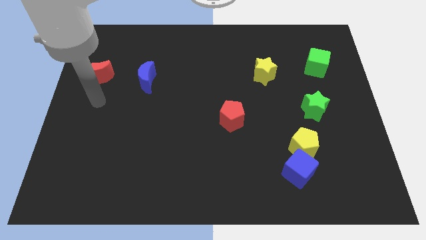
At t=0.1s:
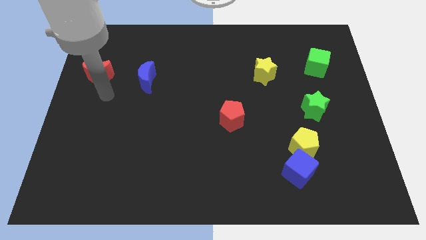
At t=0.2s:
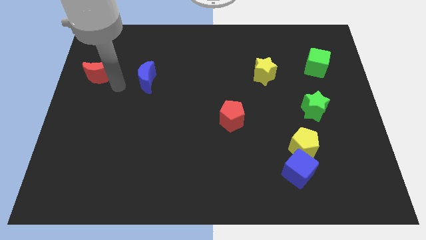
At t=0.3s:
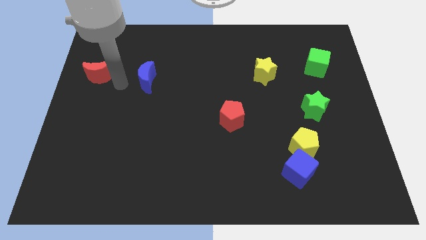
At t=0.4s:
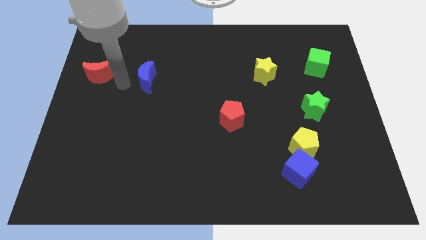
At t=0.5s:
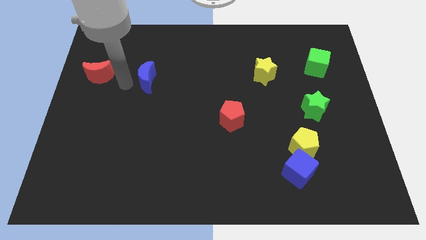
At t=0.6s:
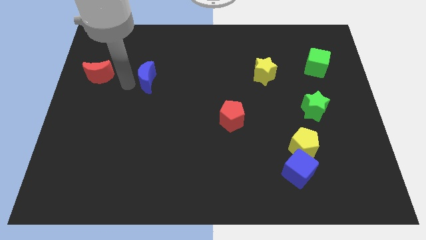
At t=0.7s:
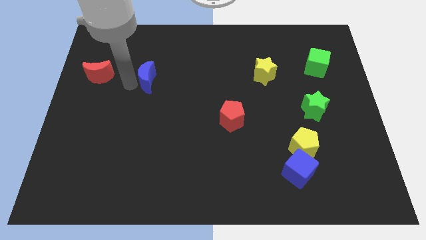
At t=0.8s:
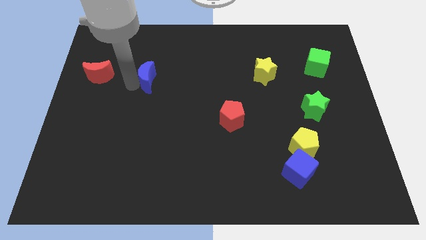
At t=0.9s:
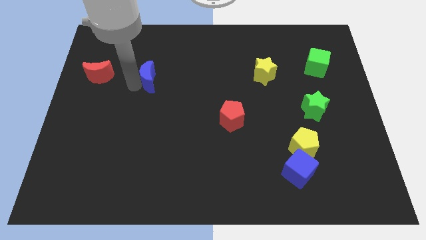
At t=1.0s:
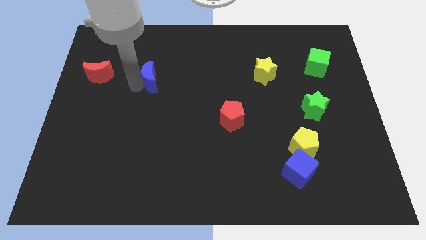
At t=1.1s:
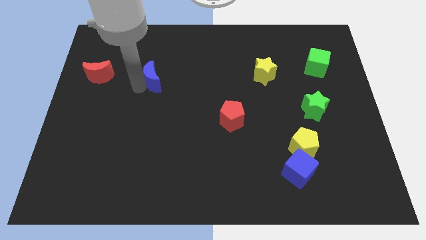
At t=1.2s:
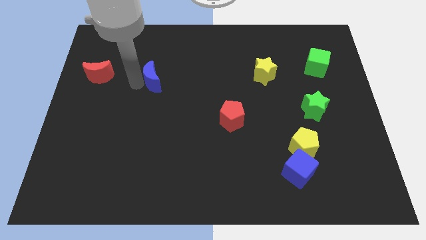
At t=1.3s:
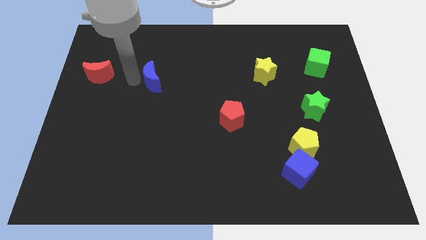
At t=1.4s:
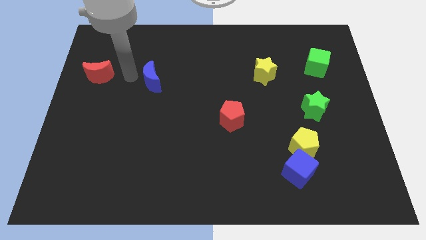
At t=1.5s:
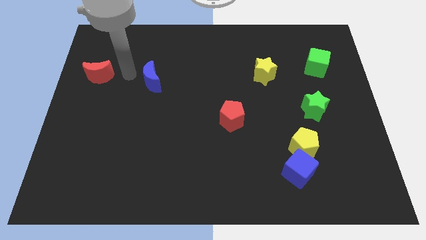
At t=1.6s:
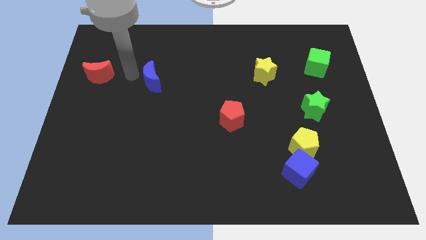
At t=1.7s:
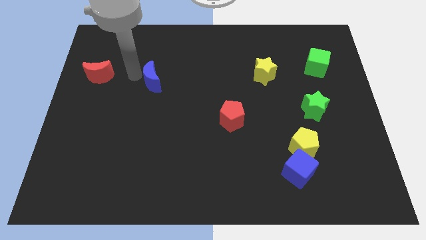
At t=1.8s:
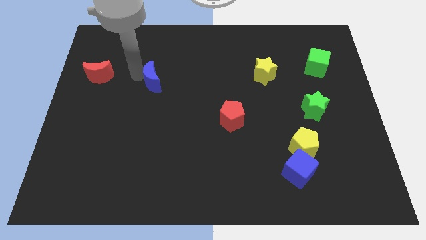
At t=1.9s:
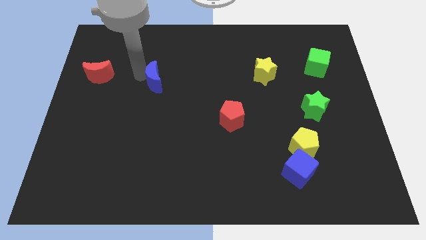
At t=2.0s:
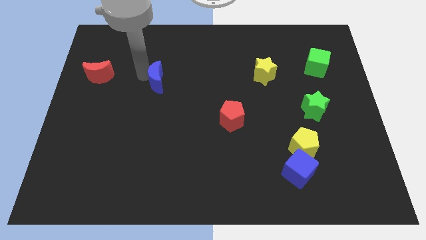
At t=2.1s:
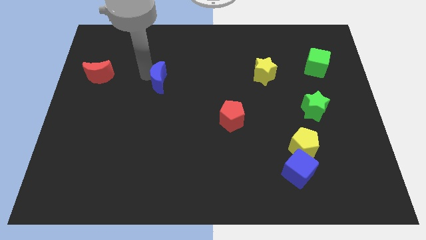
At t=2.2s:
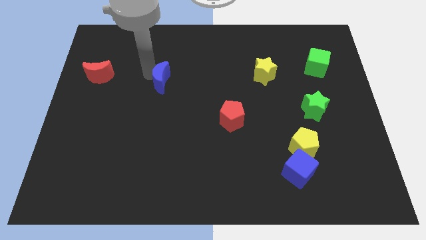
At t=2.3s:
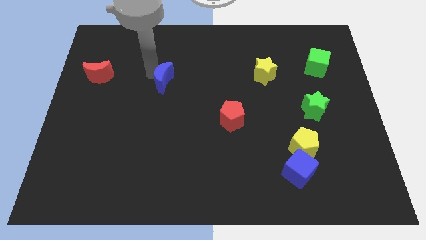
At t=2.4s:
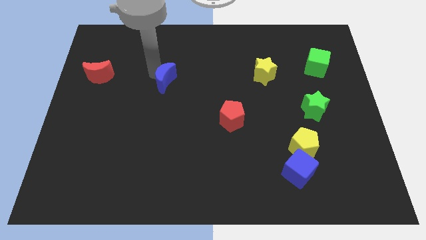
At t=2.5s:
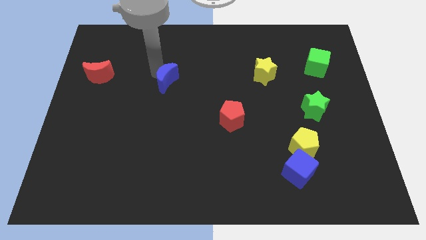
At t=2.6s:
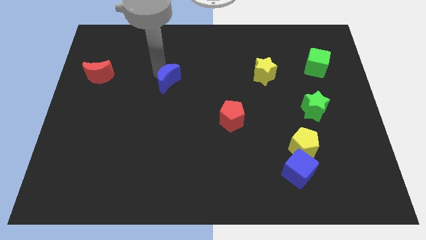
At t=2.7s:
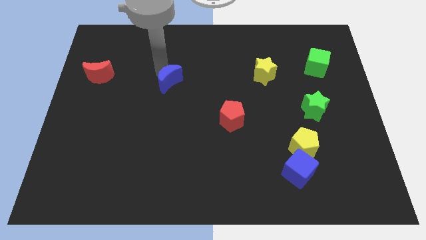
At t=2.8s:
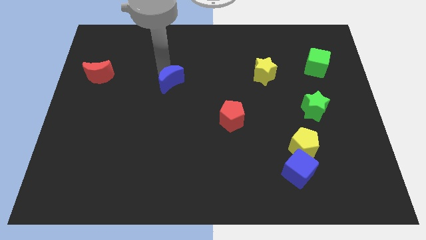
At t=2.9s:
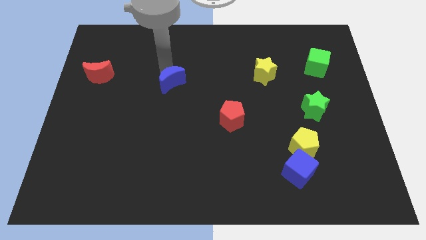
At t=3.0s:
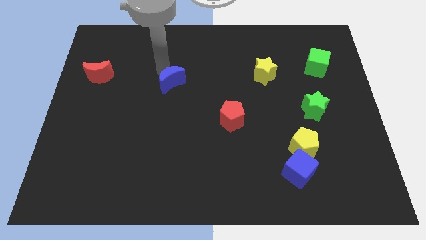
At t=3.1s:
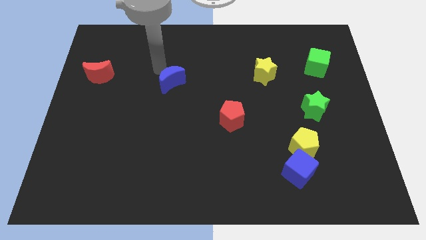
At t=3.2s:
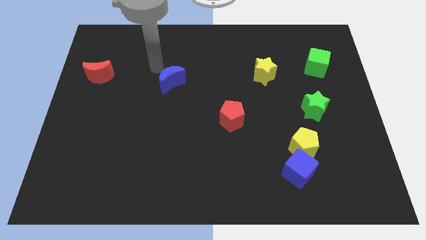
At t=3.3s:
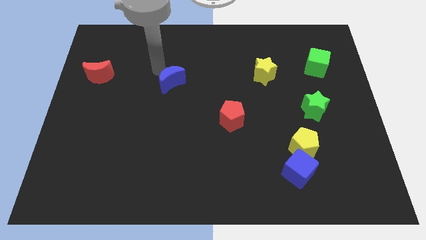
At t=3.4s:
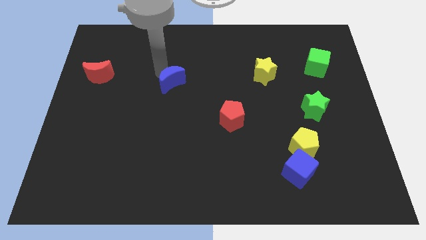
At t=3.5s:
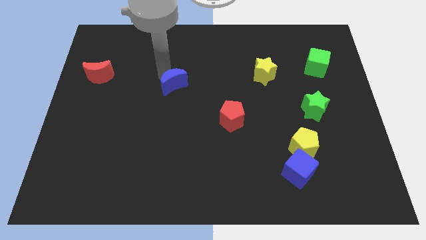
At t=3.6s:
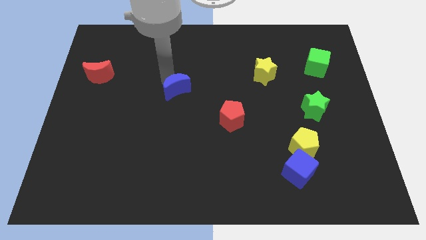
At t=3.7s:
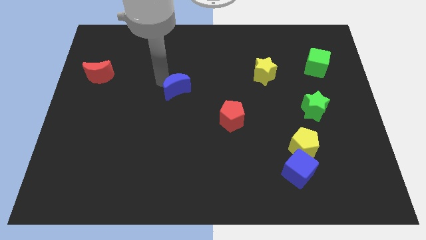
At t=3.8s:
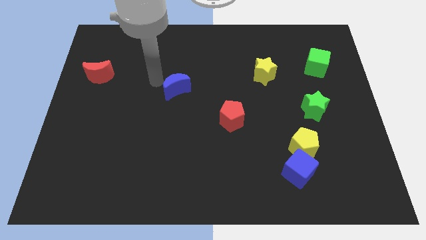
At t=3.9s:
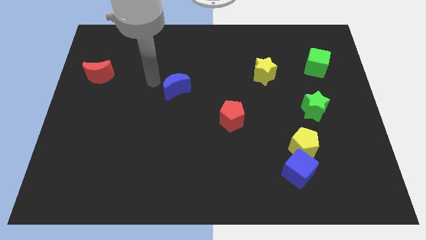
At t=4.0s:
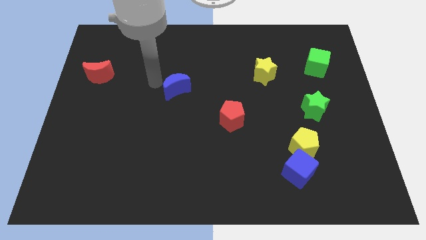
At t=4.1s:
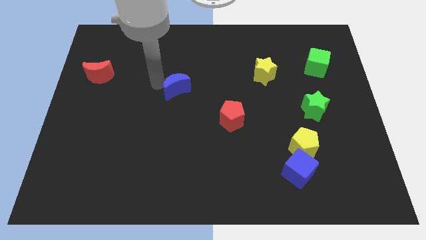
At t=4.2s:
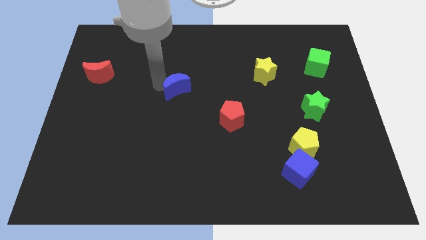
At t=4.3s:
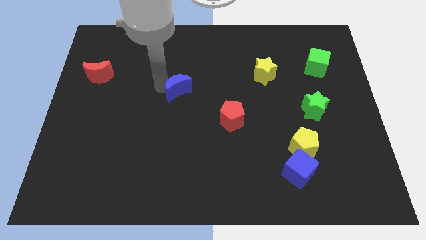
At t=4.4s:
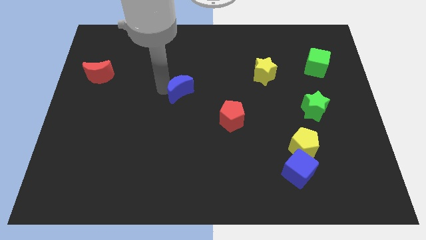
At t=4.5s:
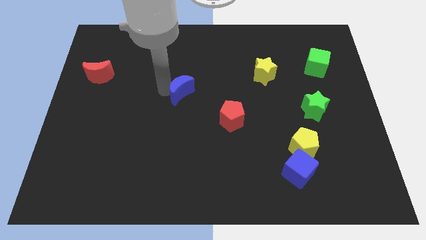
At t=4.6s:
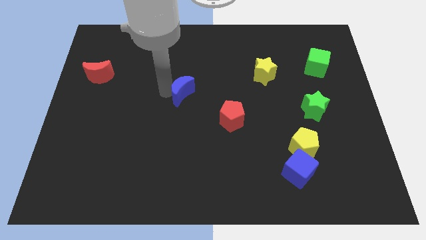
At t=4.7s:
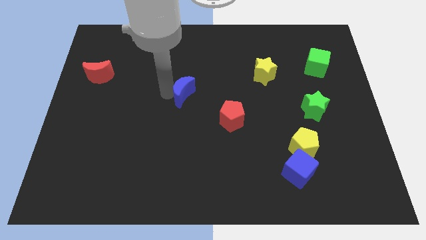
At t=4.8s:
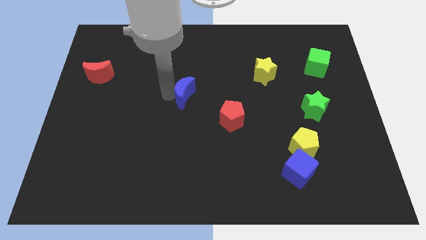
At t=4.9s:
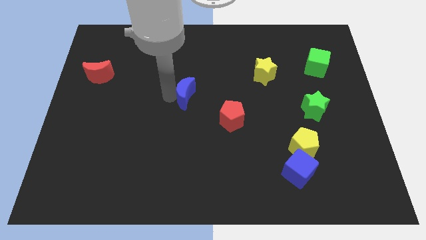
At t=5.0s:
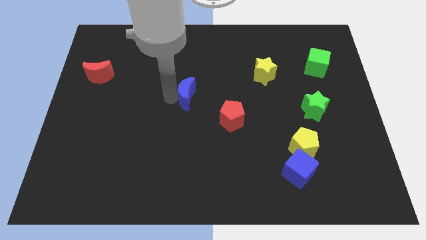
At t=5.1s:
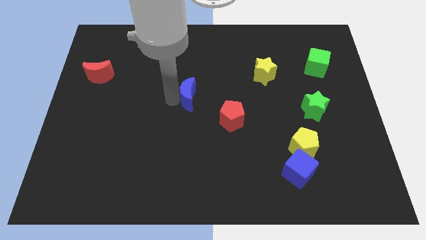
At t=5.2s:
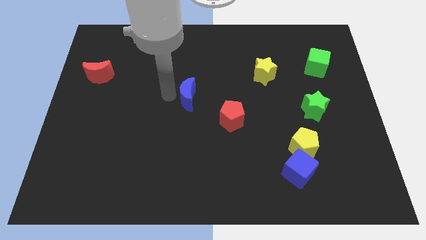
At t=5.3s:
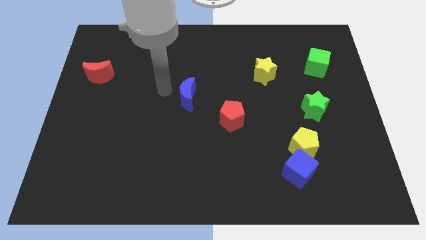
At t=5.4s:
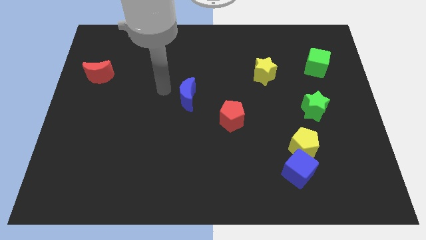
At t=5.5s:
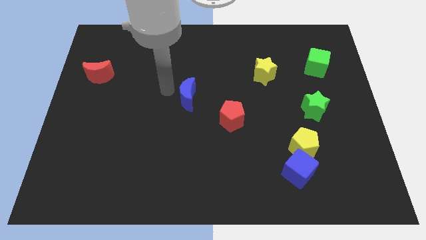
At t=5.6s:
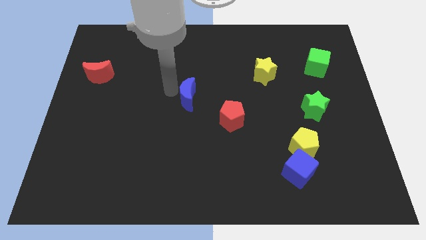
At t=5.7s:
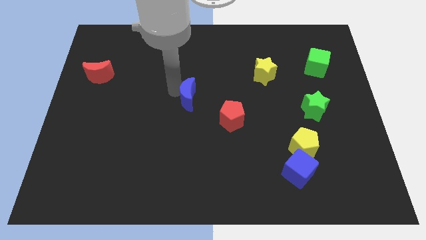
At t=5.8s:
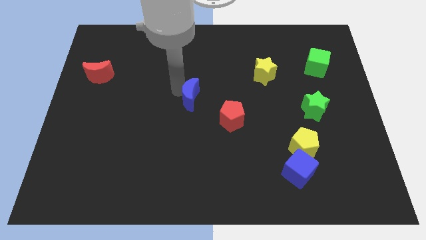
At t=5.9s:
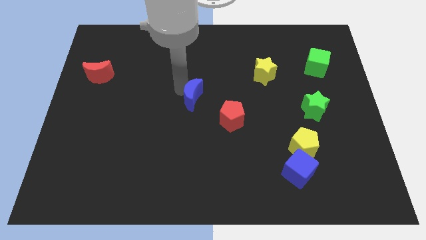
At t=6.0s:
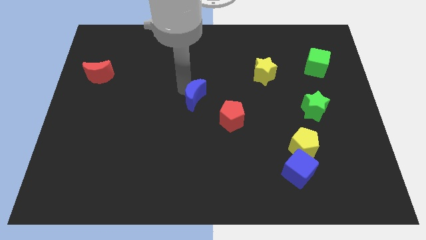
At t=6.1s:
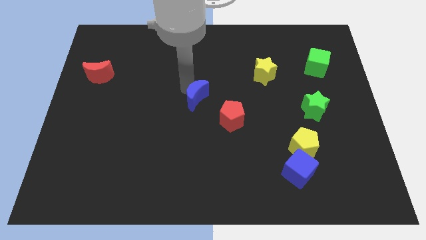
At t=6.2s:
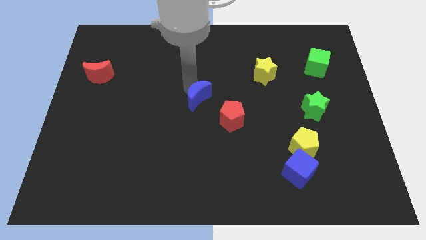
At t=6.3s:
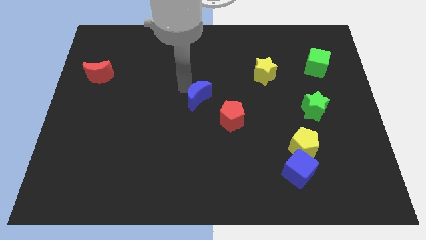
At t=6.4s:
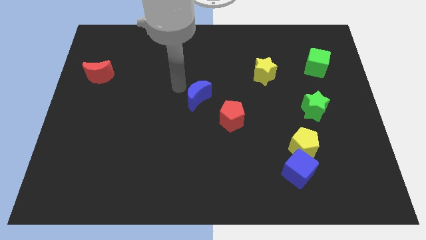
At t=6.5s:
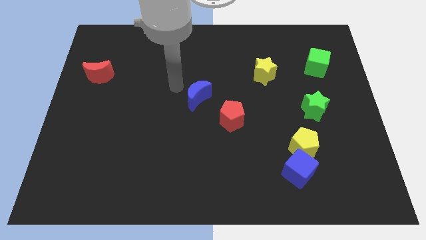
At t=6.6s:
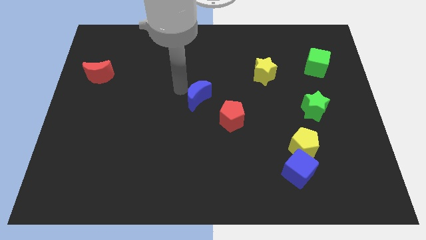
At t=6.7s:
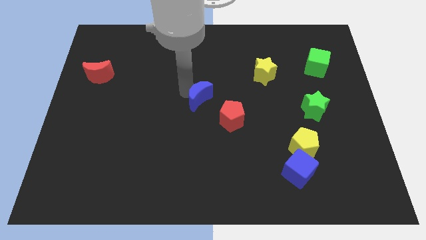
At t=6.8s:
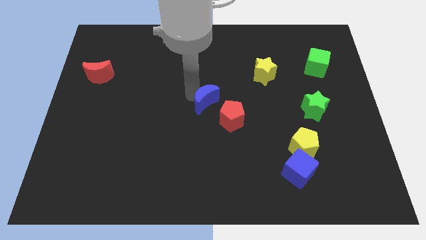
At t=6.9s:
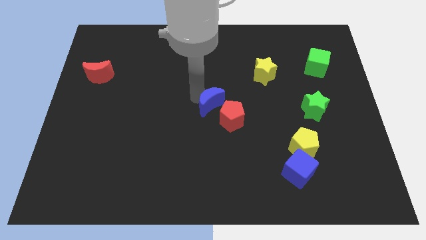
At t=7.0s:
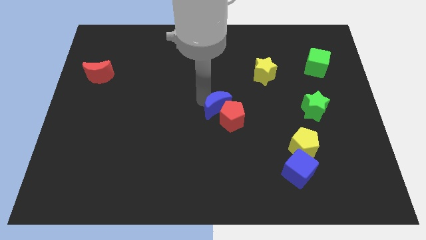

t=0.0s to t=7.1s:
put the blue moon towards the red pentagon
